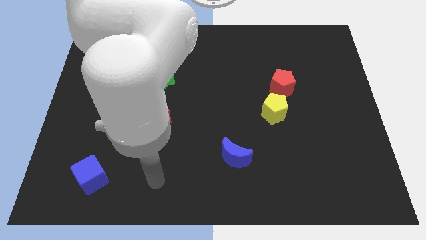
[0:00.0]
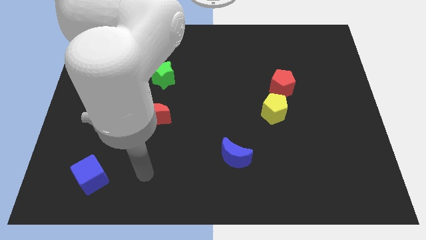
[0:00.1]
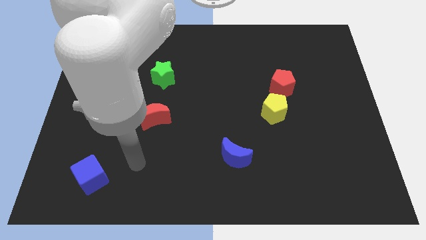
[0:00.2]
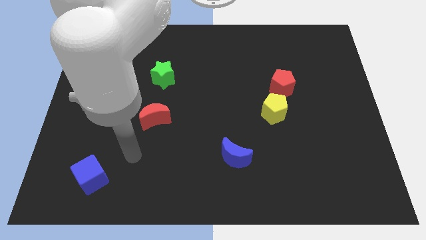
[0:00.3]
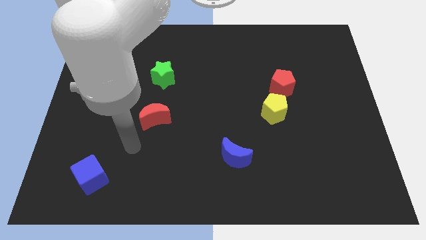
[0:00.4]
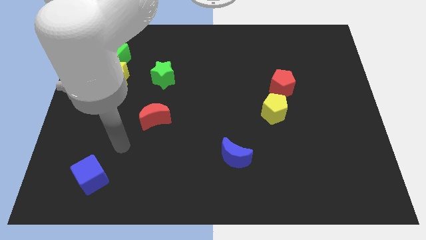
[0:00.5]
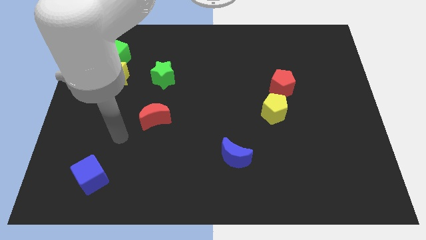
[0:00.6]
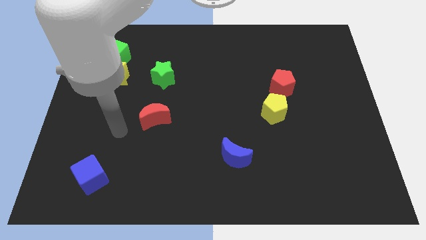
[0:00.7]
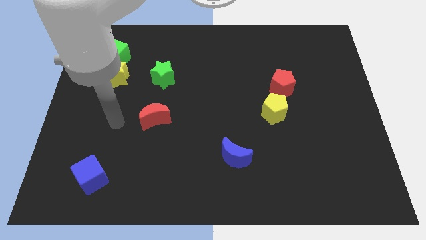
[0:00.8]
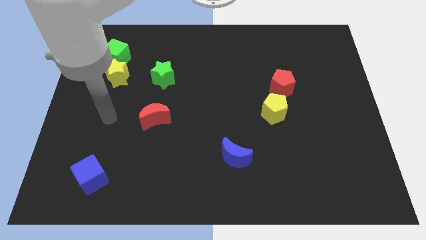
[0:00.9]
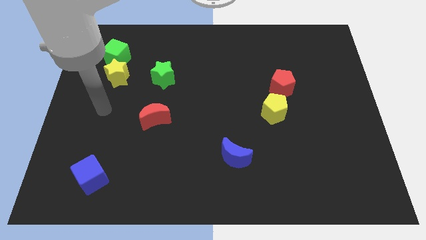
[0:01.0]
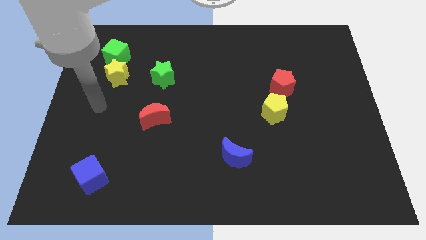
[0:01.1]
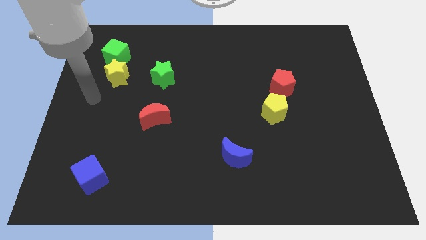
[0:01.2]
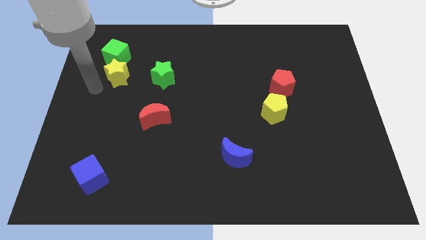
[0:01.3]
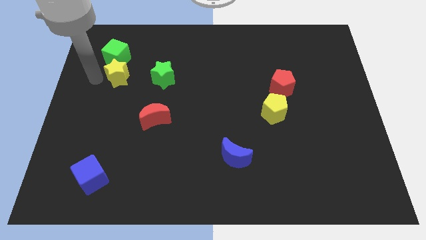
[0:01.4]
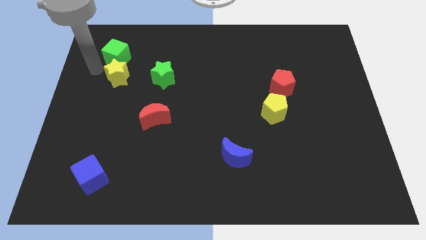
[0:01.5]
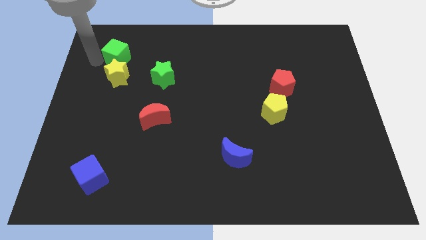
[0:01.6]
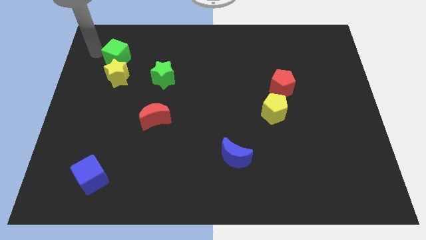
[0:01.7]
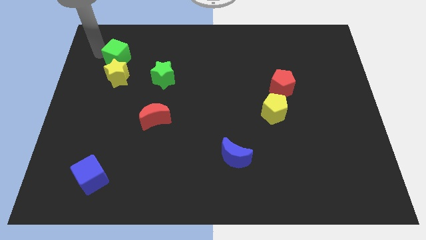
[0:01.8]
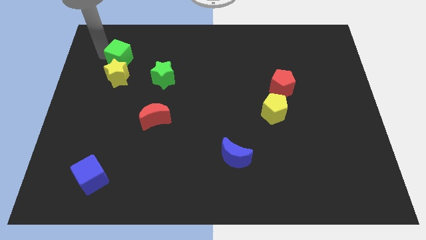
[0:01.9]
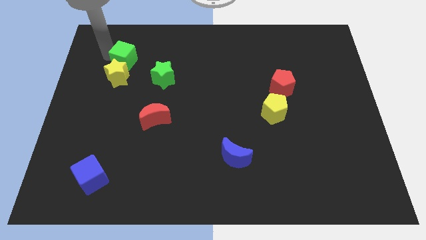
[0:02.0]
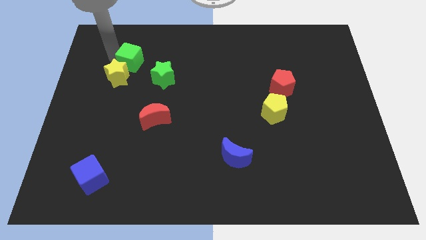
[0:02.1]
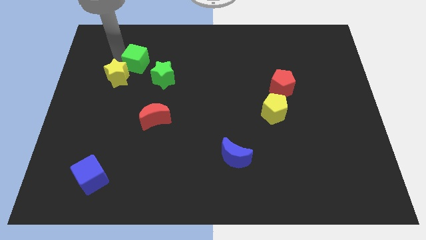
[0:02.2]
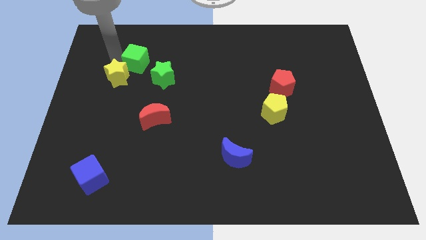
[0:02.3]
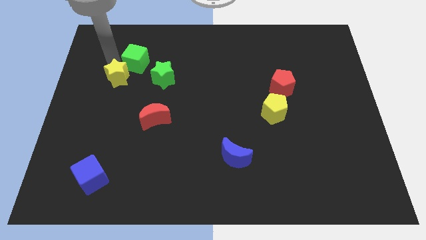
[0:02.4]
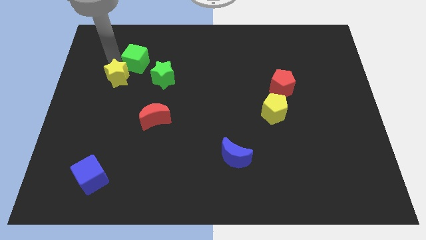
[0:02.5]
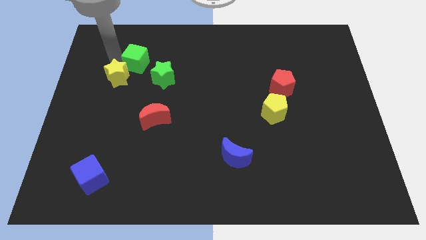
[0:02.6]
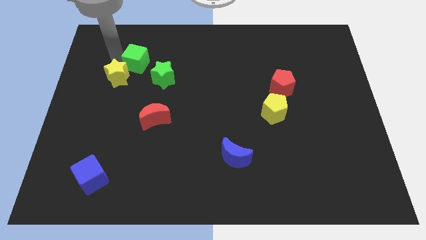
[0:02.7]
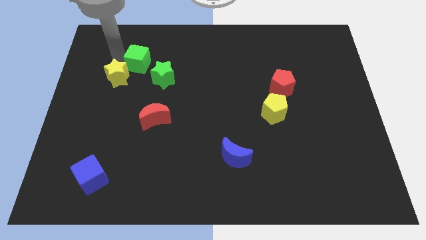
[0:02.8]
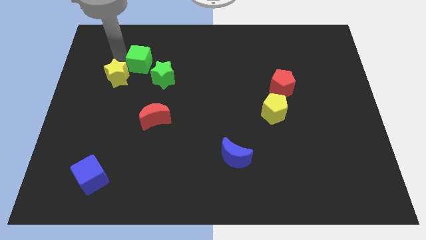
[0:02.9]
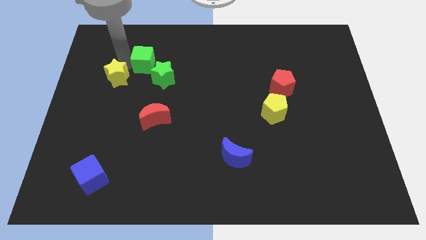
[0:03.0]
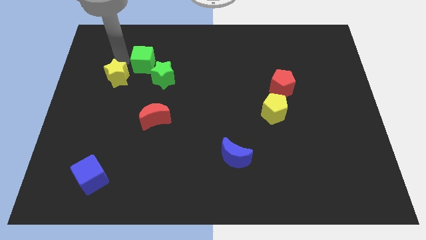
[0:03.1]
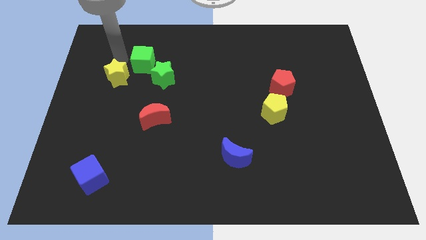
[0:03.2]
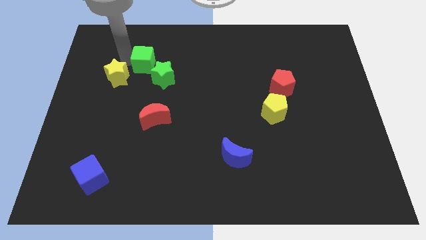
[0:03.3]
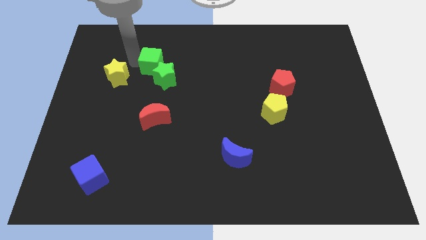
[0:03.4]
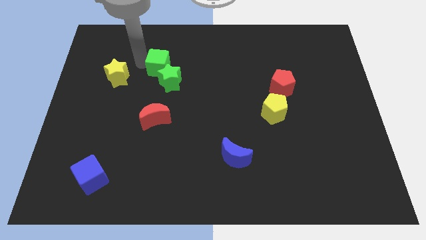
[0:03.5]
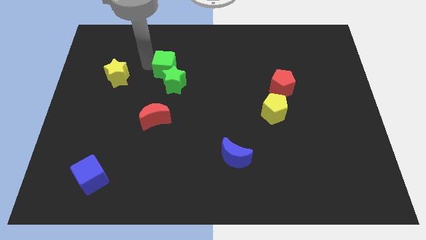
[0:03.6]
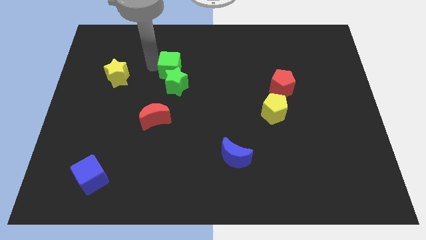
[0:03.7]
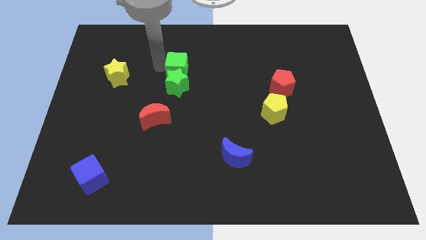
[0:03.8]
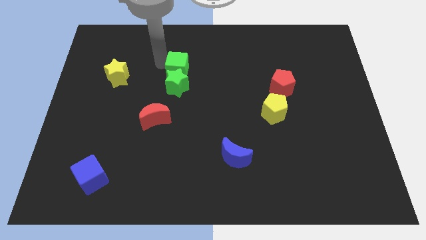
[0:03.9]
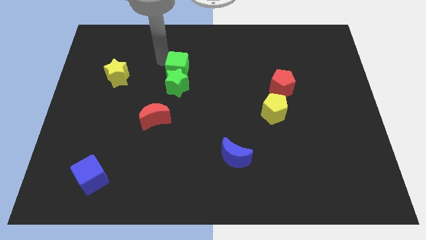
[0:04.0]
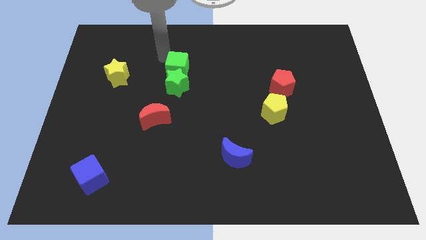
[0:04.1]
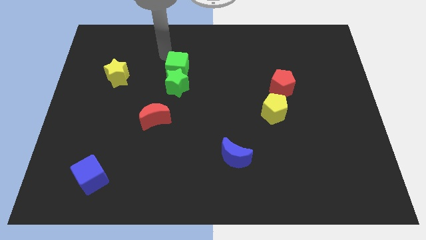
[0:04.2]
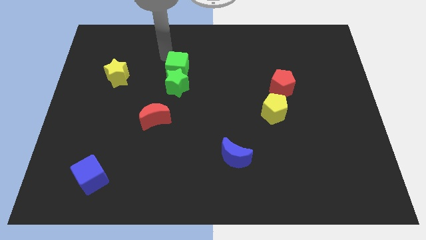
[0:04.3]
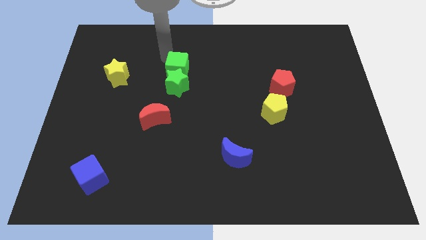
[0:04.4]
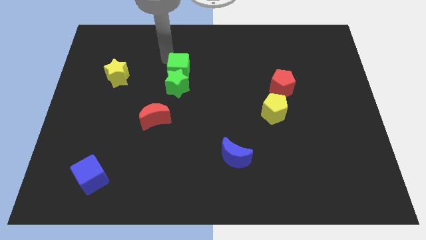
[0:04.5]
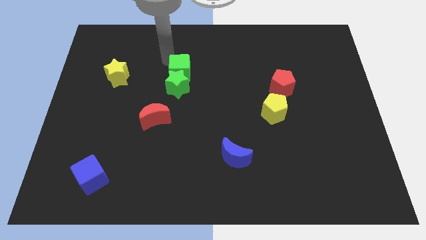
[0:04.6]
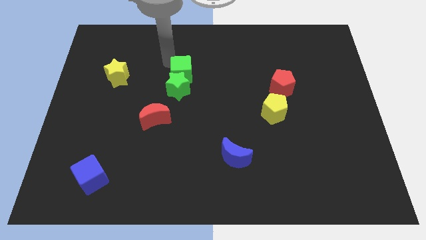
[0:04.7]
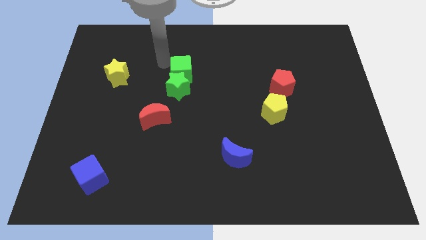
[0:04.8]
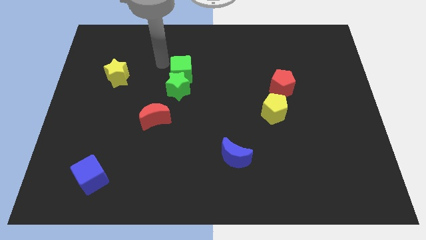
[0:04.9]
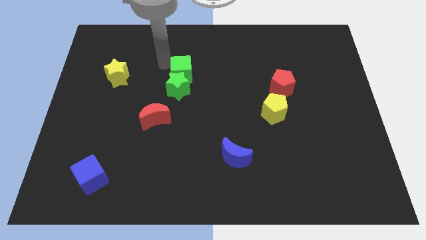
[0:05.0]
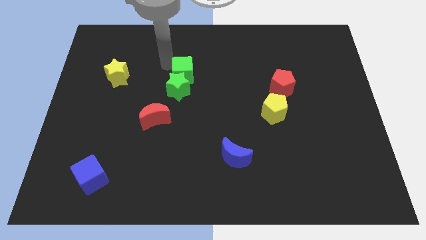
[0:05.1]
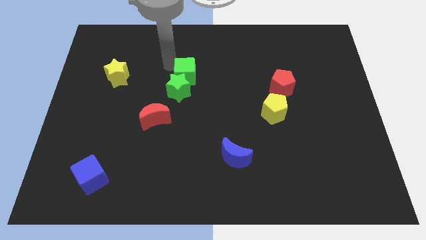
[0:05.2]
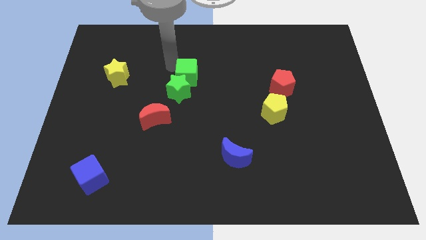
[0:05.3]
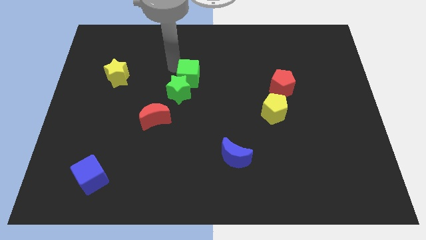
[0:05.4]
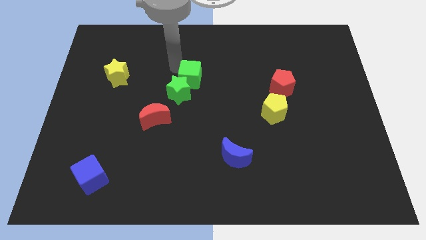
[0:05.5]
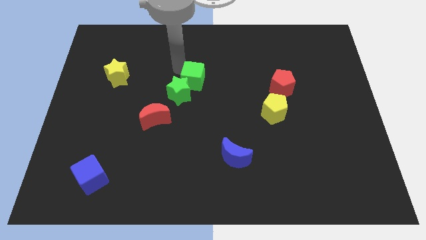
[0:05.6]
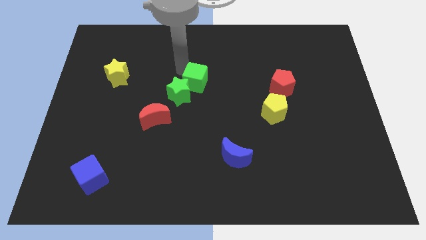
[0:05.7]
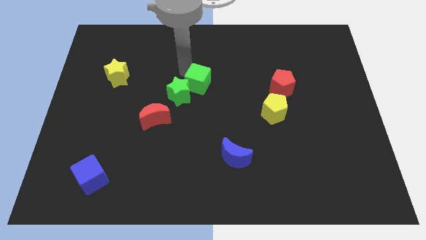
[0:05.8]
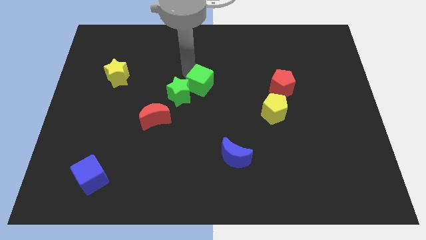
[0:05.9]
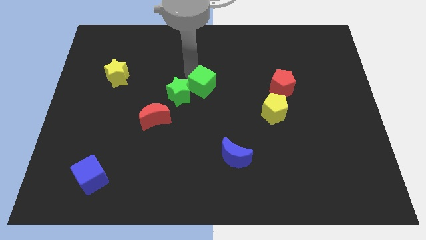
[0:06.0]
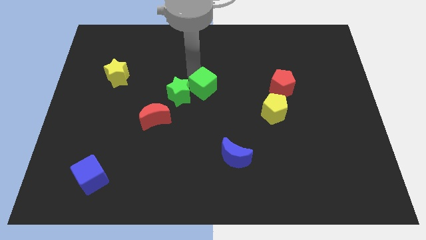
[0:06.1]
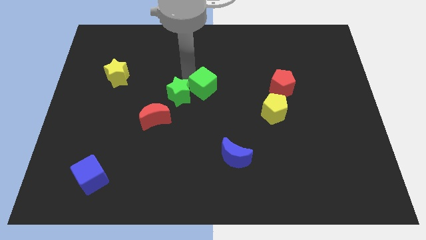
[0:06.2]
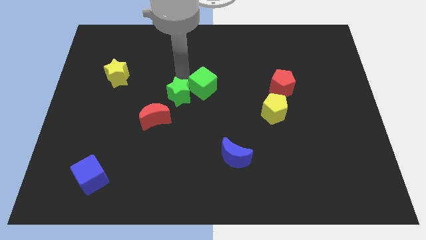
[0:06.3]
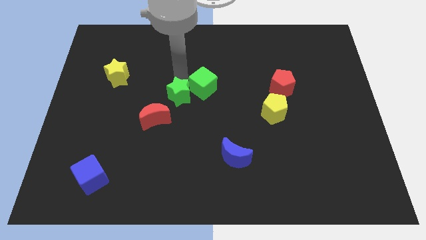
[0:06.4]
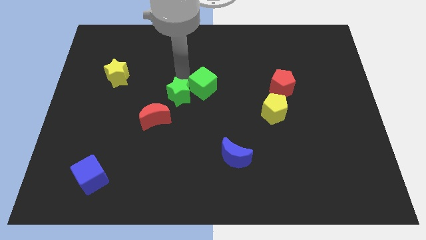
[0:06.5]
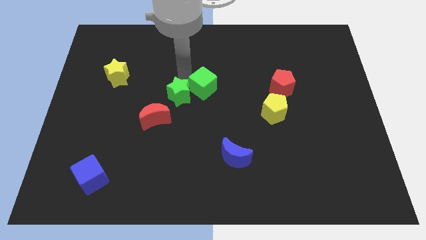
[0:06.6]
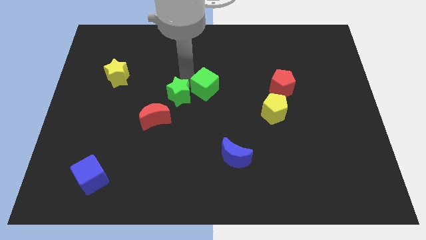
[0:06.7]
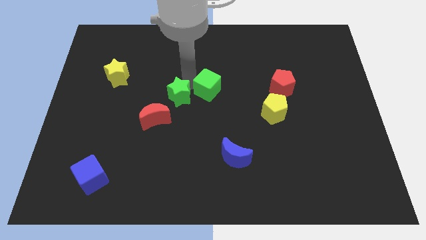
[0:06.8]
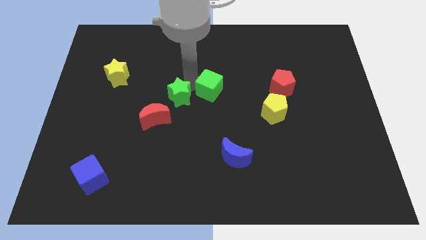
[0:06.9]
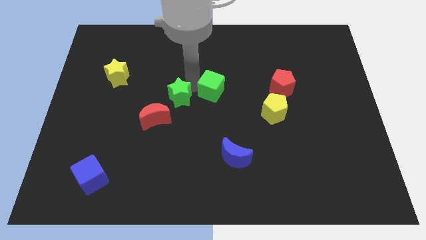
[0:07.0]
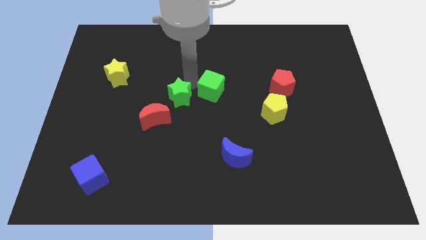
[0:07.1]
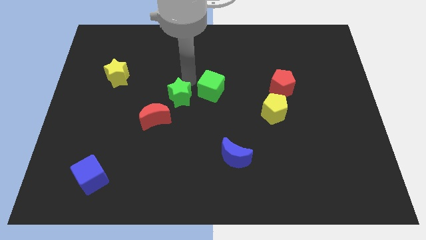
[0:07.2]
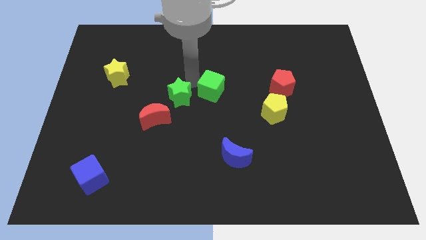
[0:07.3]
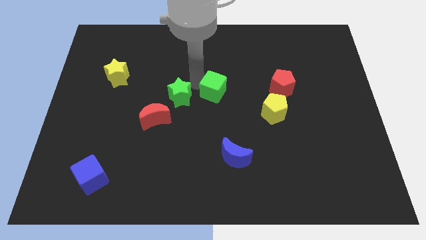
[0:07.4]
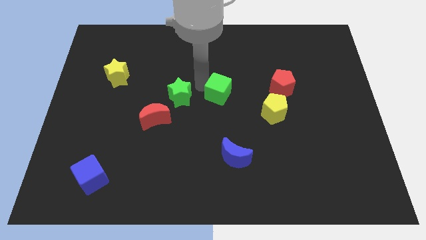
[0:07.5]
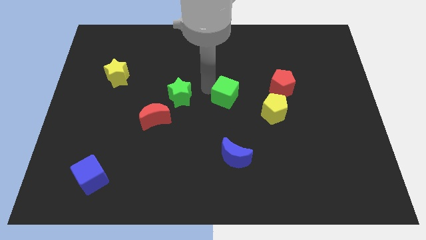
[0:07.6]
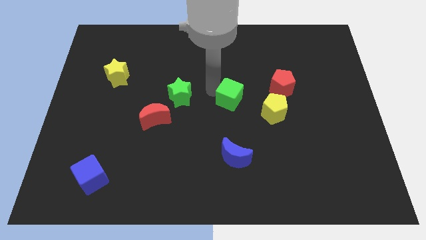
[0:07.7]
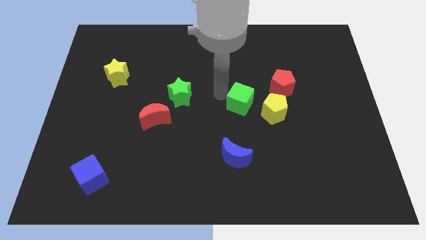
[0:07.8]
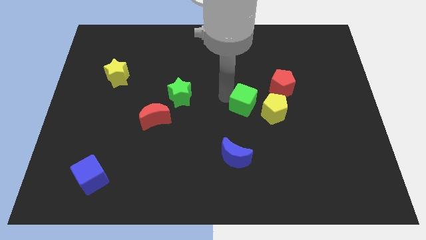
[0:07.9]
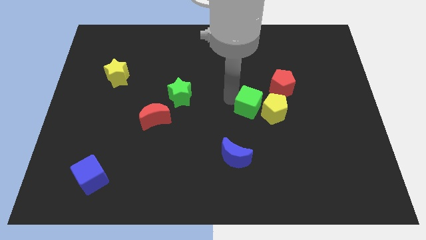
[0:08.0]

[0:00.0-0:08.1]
push the green cube to the yellow pentagon
